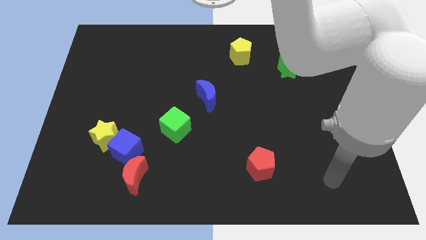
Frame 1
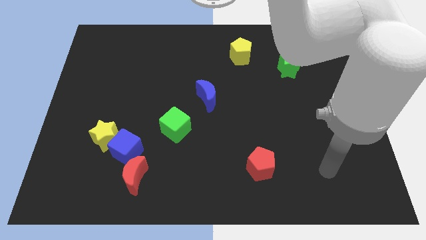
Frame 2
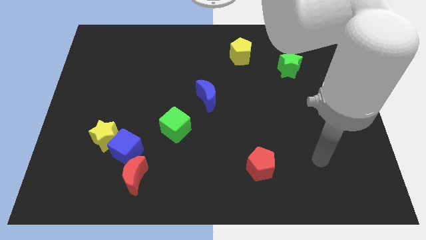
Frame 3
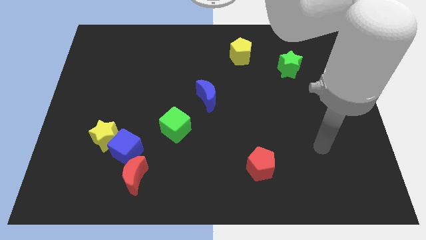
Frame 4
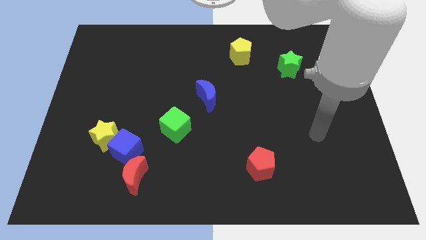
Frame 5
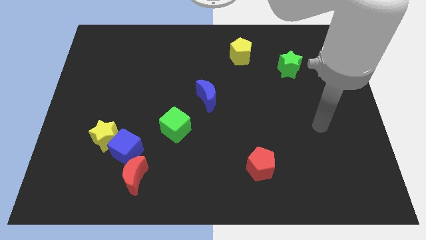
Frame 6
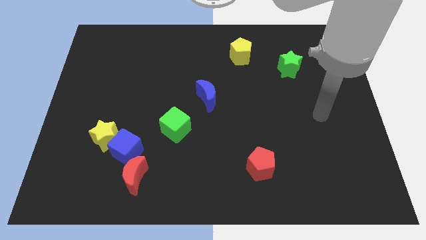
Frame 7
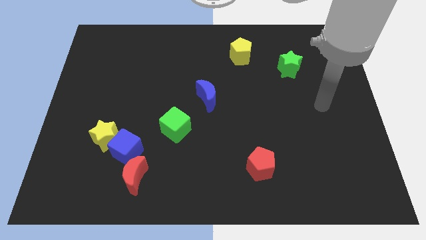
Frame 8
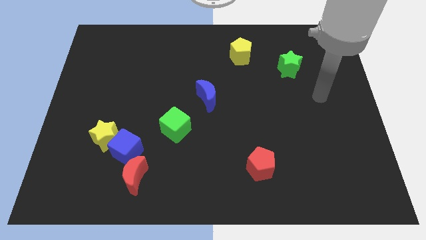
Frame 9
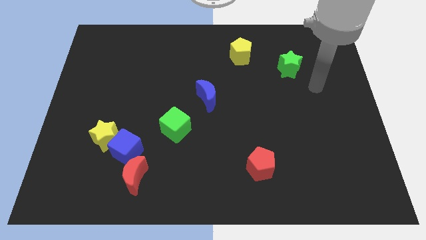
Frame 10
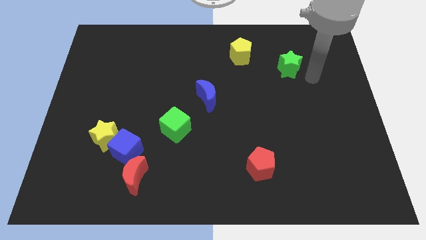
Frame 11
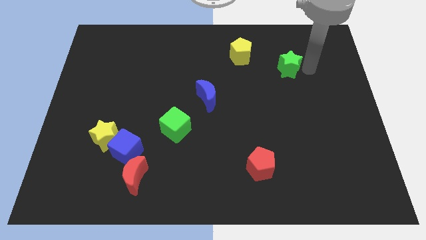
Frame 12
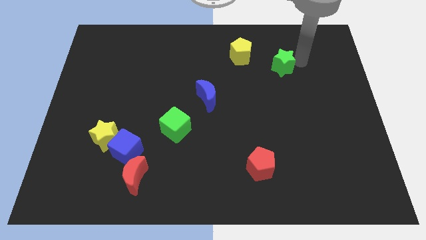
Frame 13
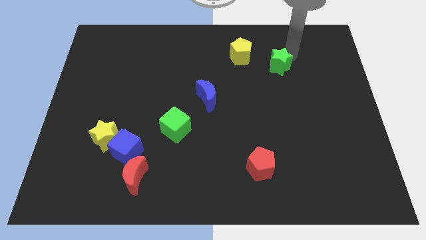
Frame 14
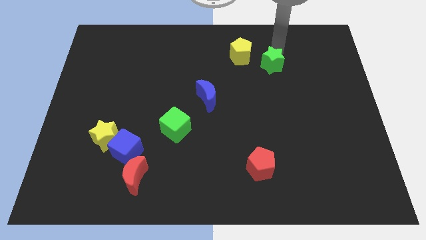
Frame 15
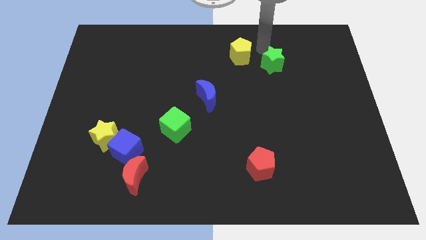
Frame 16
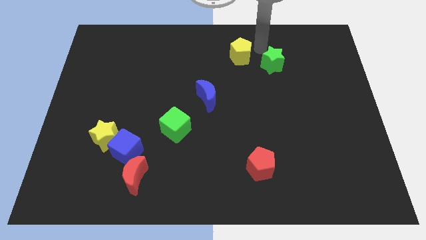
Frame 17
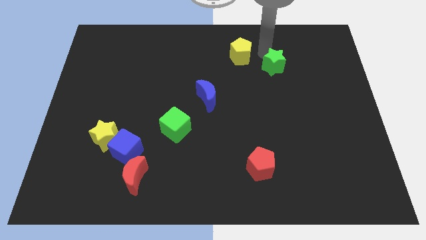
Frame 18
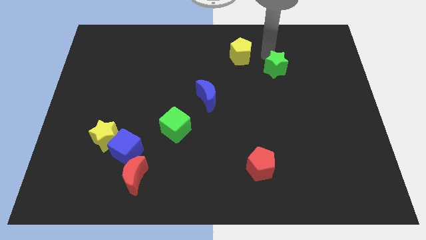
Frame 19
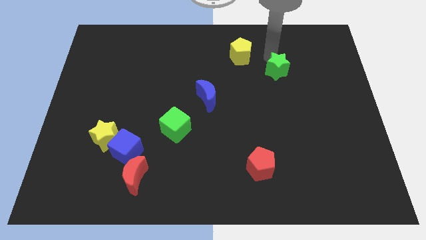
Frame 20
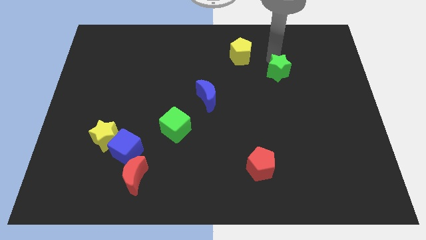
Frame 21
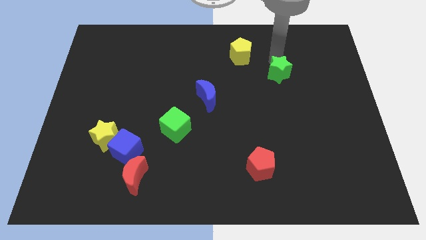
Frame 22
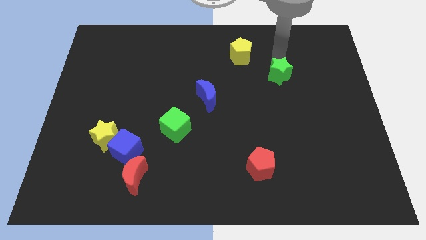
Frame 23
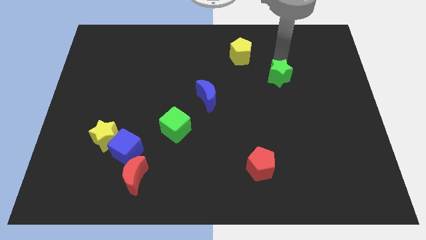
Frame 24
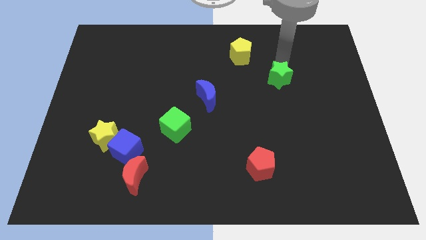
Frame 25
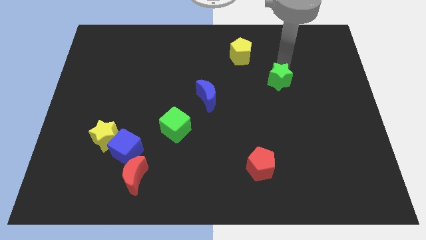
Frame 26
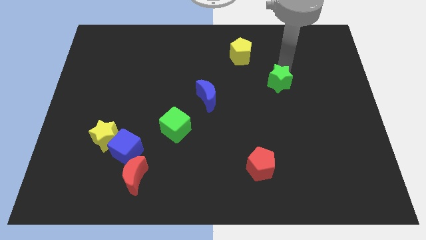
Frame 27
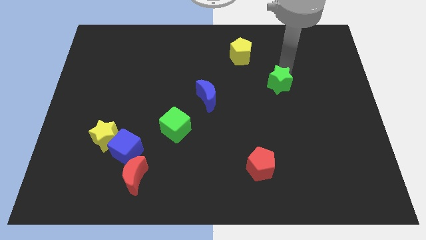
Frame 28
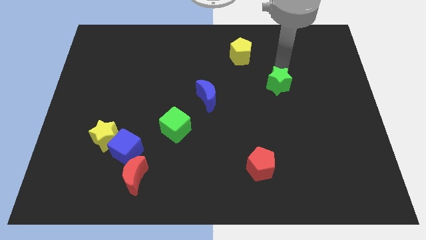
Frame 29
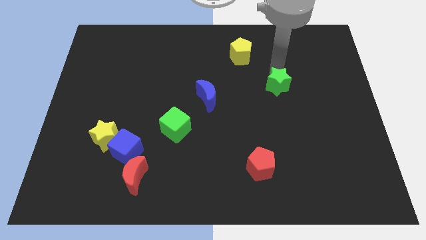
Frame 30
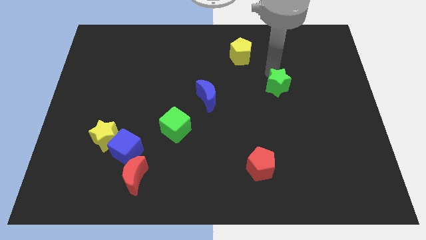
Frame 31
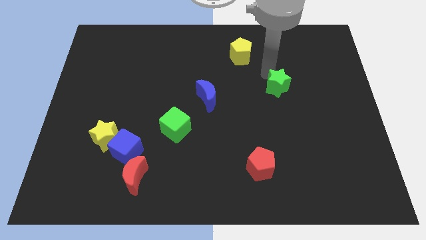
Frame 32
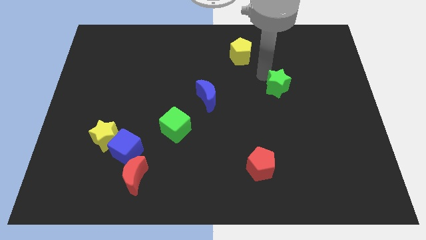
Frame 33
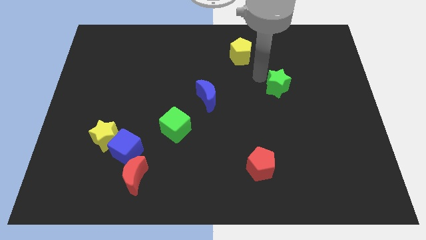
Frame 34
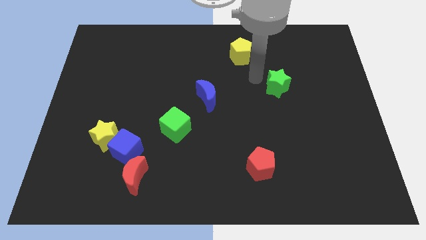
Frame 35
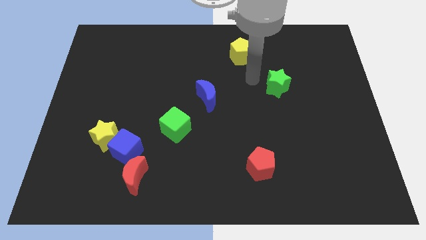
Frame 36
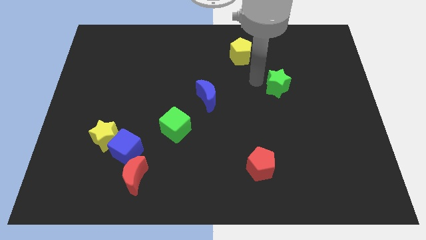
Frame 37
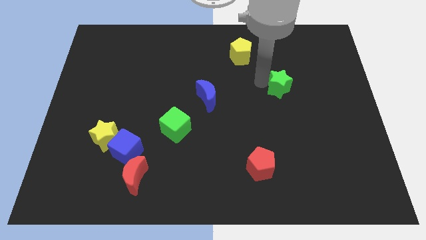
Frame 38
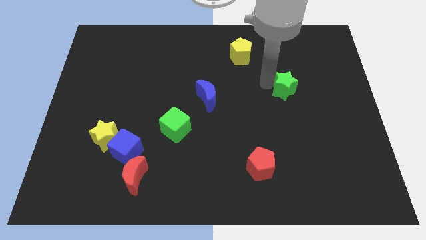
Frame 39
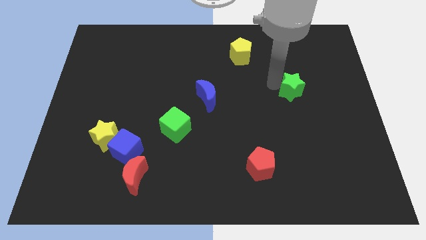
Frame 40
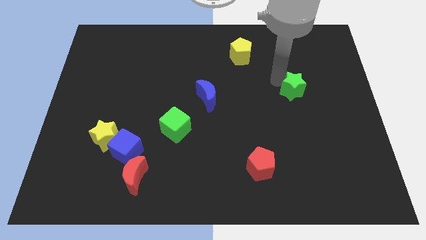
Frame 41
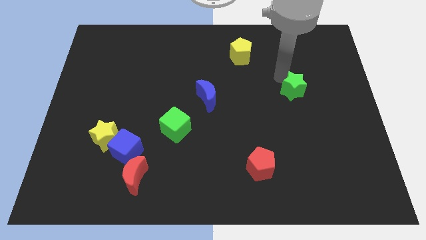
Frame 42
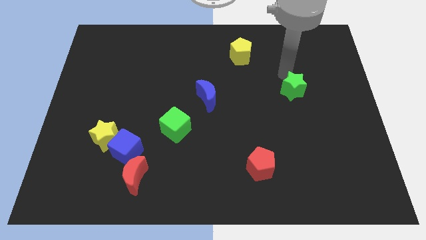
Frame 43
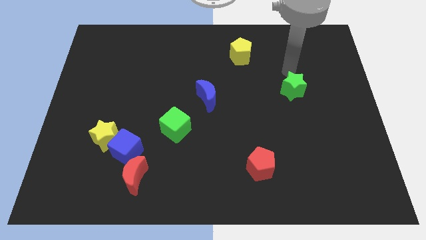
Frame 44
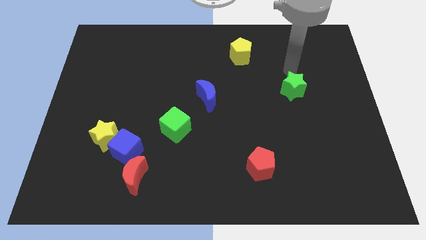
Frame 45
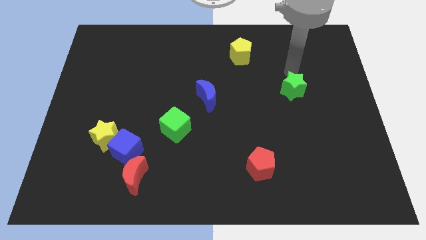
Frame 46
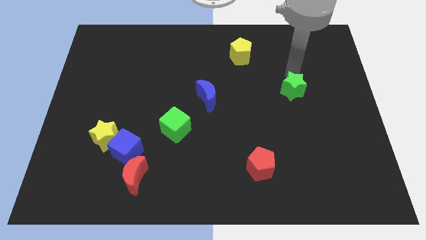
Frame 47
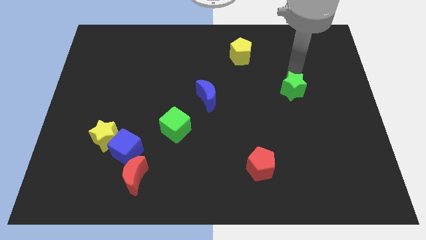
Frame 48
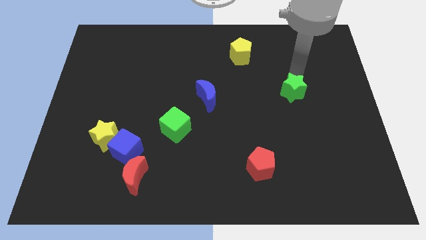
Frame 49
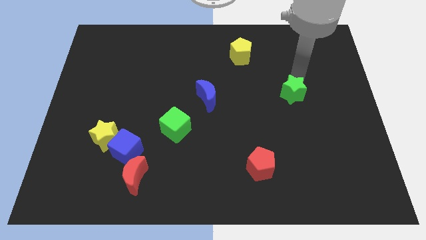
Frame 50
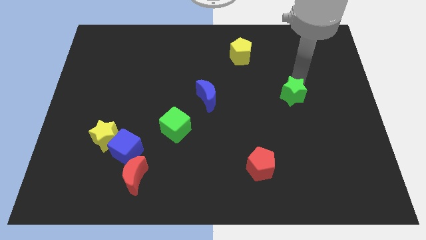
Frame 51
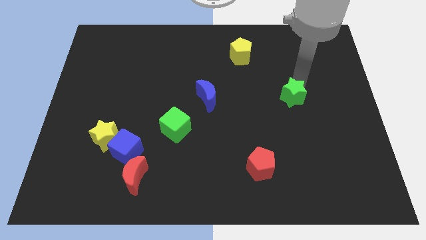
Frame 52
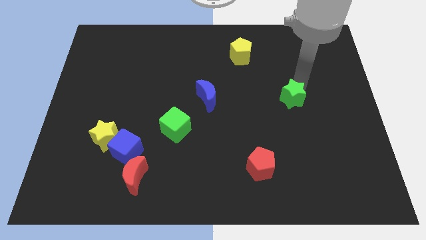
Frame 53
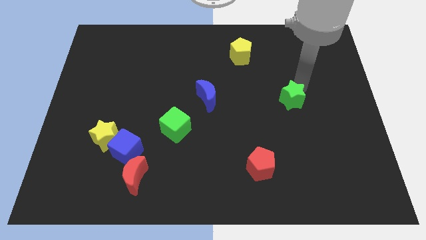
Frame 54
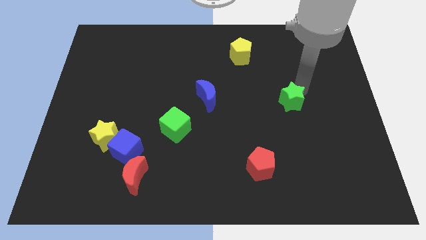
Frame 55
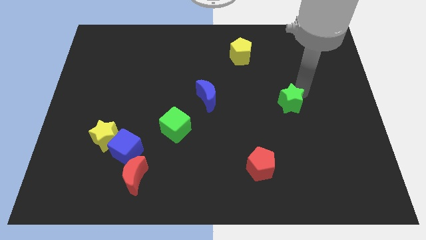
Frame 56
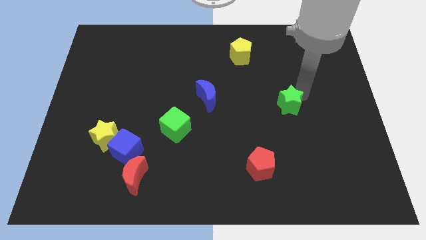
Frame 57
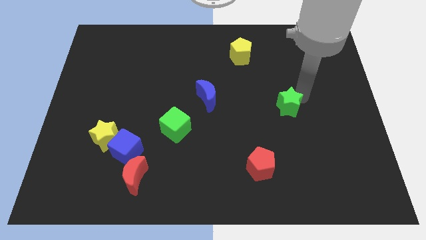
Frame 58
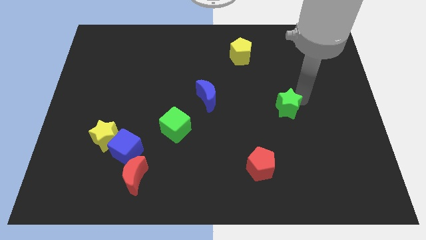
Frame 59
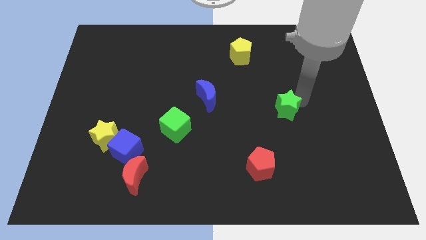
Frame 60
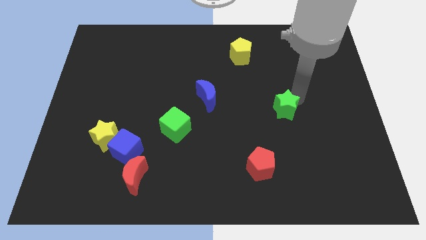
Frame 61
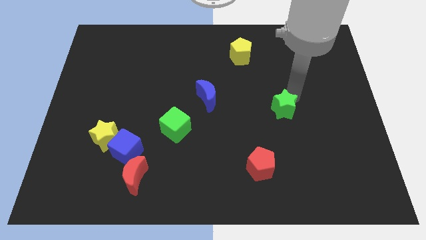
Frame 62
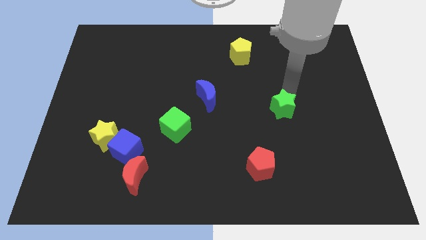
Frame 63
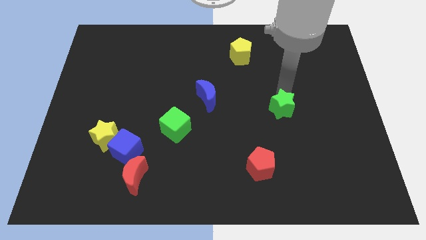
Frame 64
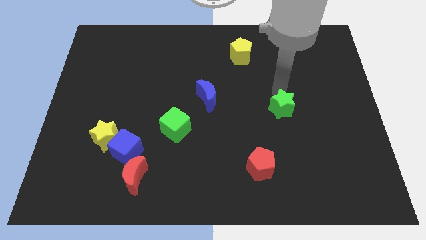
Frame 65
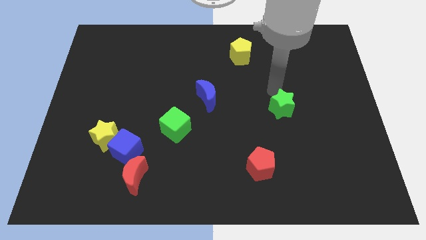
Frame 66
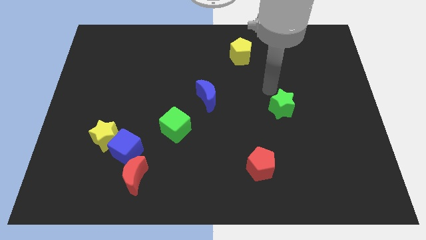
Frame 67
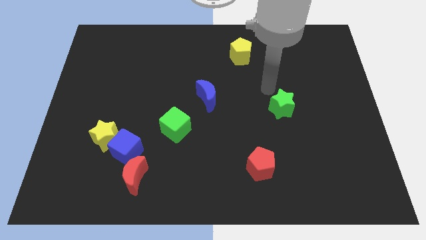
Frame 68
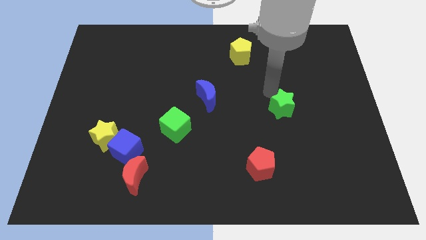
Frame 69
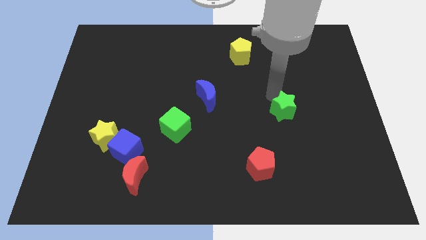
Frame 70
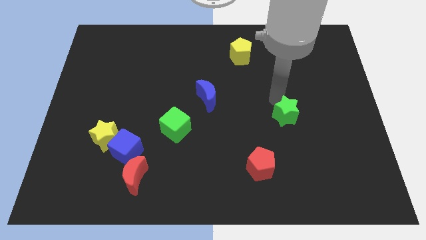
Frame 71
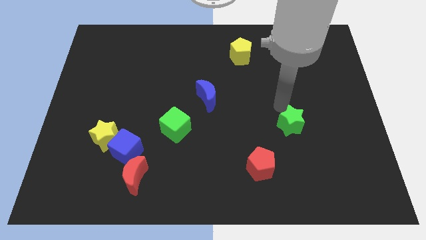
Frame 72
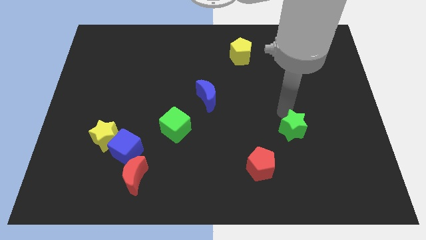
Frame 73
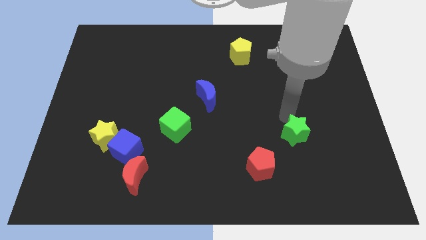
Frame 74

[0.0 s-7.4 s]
move the green star downwards

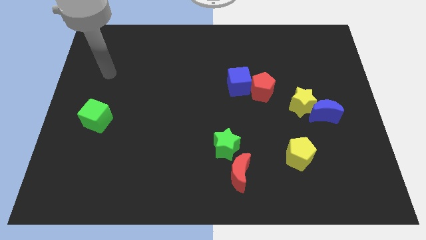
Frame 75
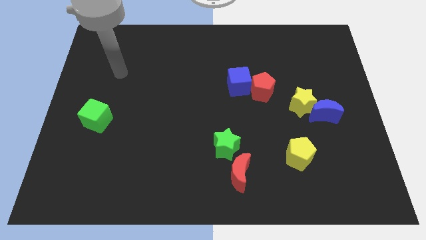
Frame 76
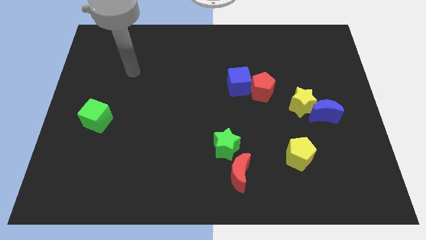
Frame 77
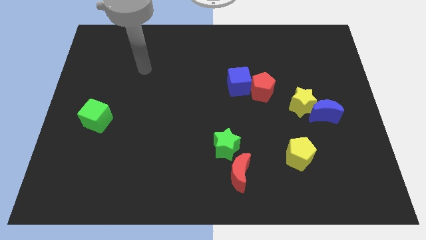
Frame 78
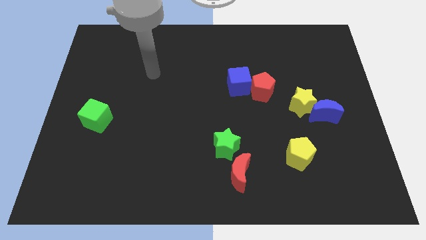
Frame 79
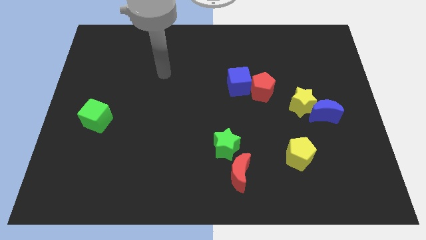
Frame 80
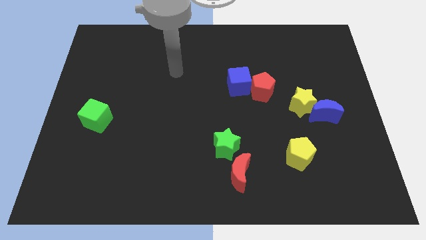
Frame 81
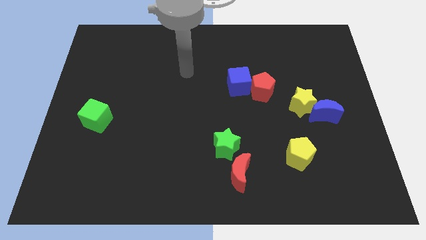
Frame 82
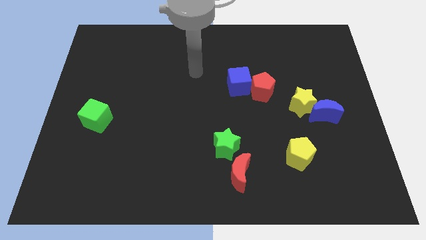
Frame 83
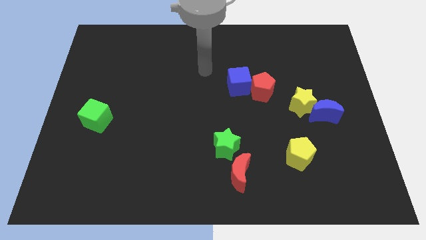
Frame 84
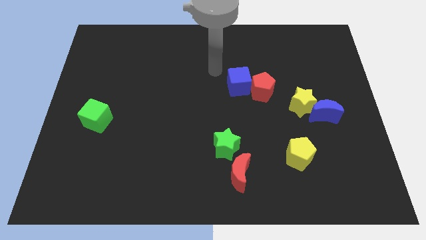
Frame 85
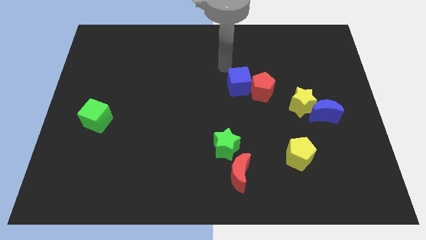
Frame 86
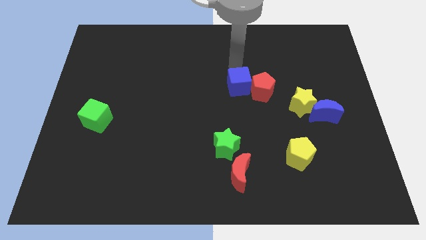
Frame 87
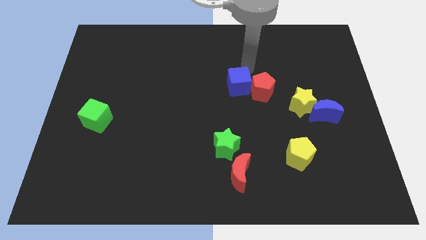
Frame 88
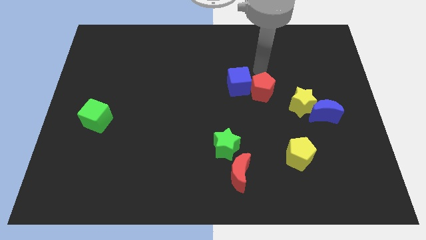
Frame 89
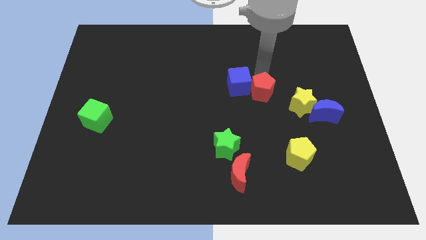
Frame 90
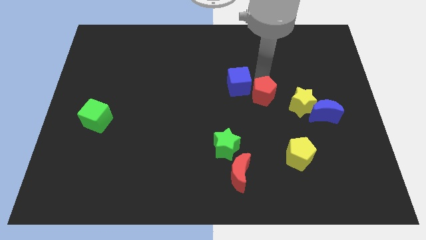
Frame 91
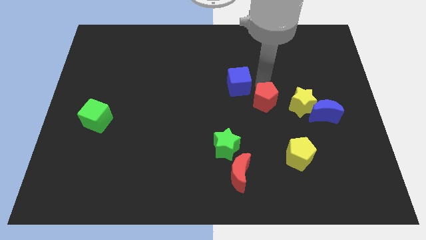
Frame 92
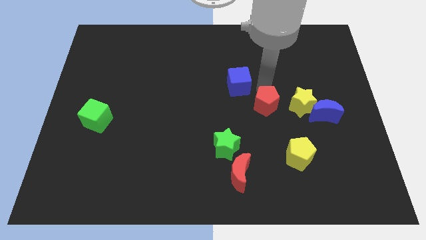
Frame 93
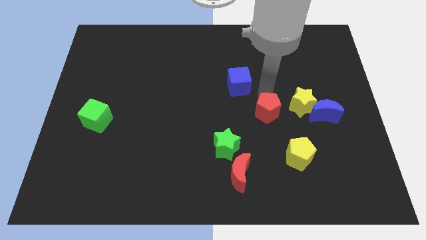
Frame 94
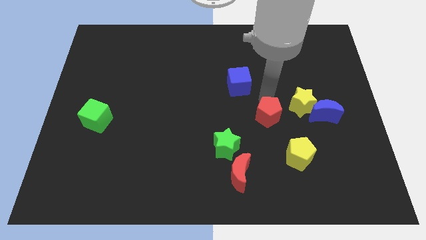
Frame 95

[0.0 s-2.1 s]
push the red pentagon a little bit downwards
